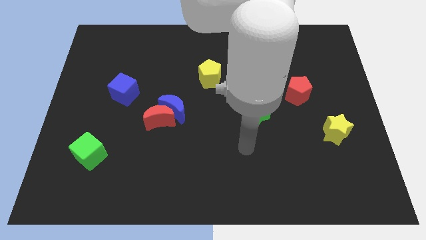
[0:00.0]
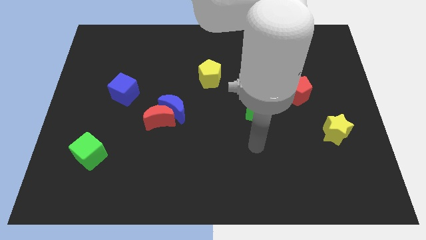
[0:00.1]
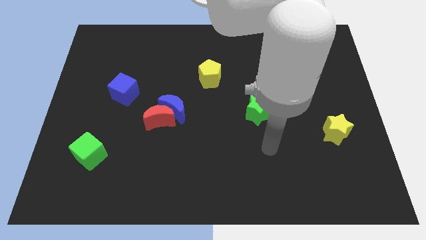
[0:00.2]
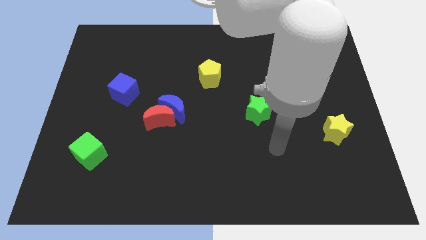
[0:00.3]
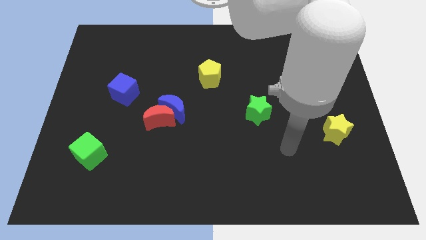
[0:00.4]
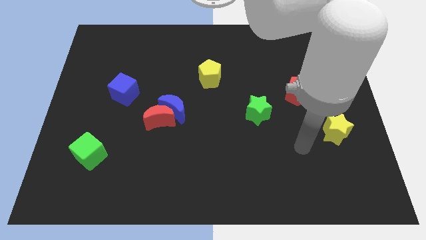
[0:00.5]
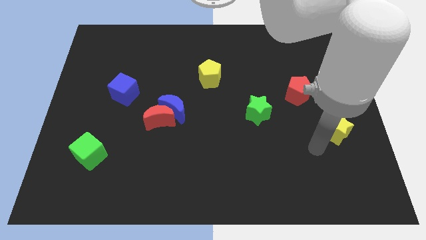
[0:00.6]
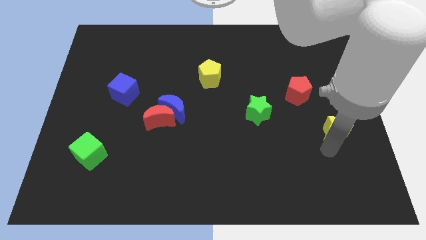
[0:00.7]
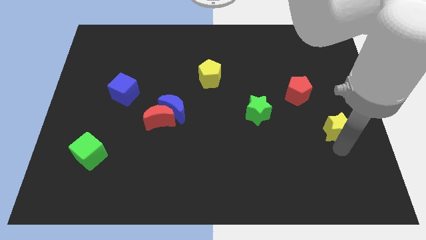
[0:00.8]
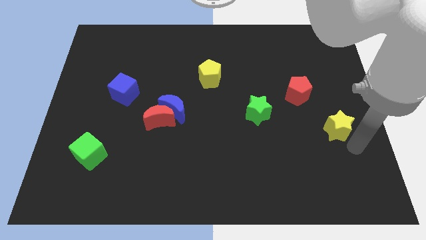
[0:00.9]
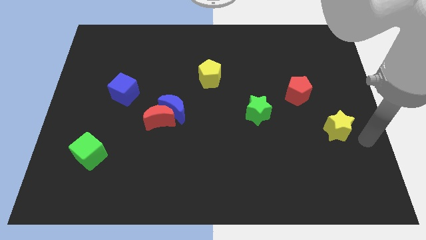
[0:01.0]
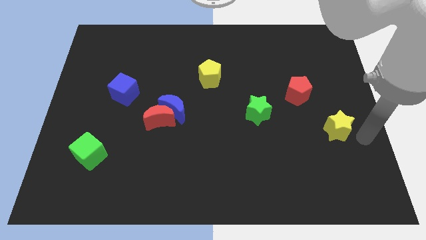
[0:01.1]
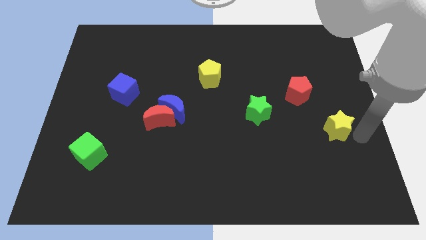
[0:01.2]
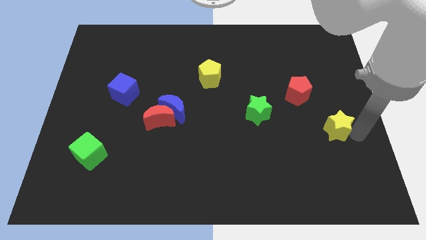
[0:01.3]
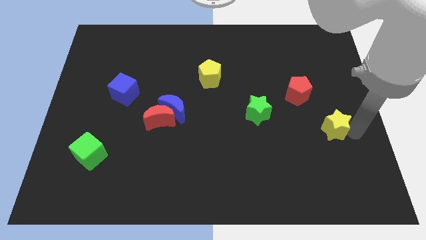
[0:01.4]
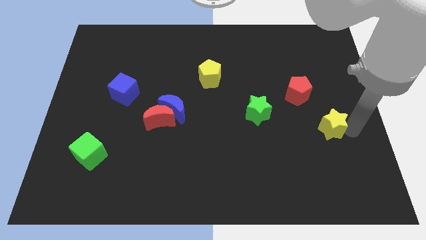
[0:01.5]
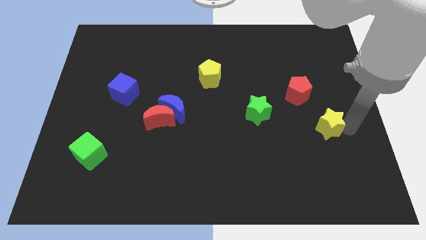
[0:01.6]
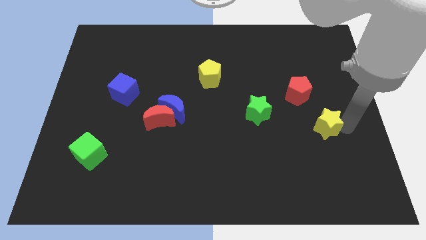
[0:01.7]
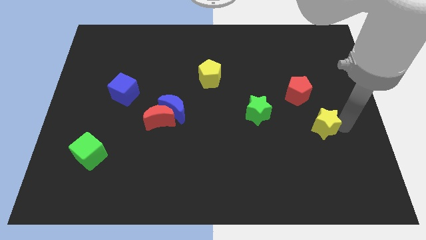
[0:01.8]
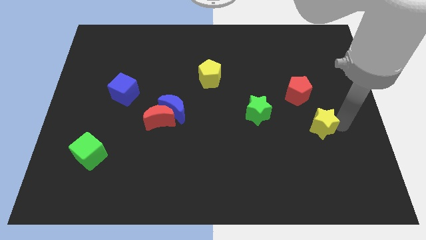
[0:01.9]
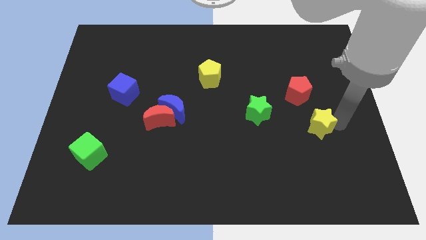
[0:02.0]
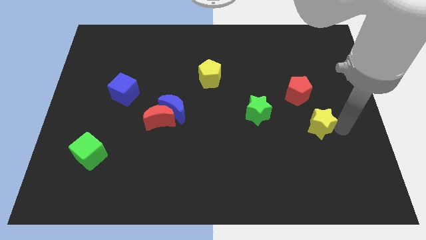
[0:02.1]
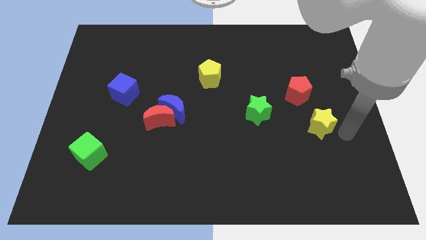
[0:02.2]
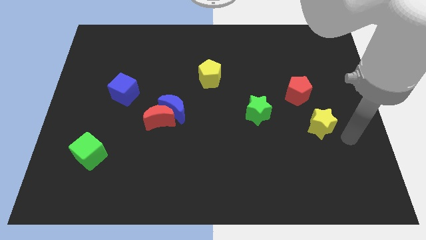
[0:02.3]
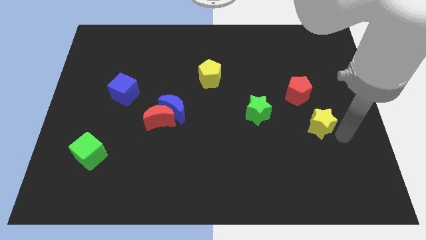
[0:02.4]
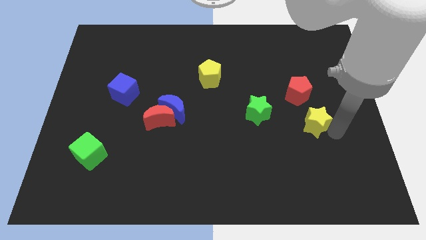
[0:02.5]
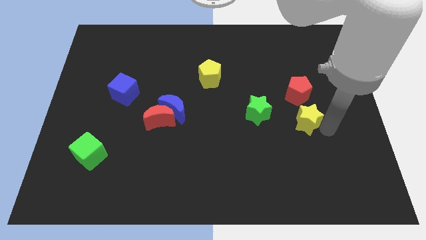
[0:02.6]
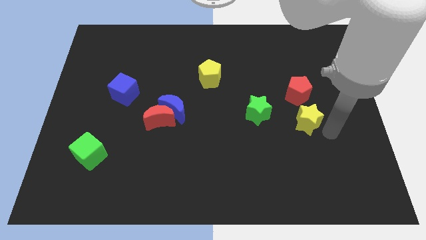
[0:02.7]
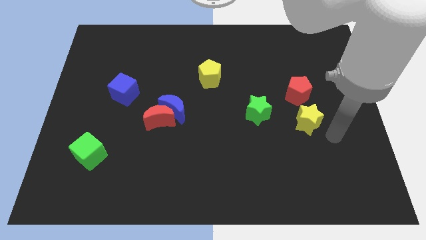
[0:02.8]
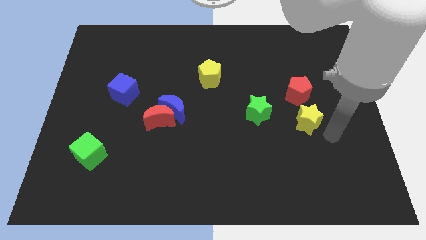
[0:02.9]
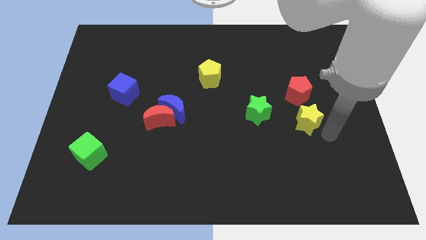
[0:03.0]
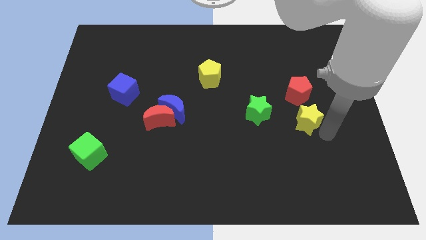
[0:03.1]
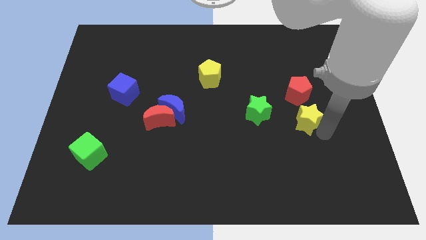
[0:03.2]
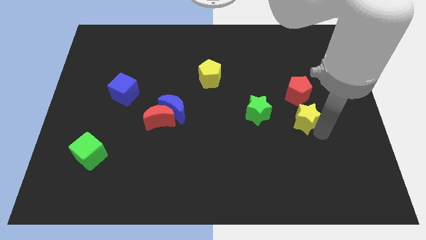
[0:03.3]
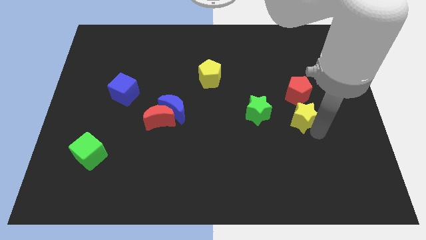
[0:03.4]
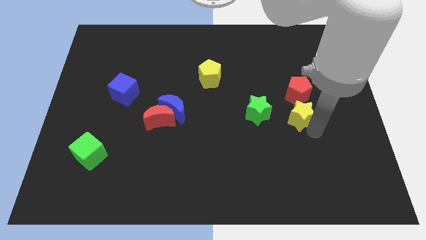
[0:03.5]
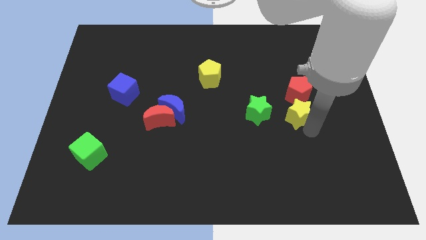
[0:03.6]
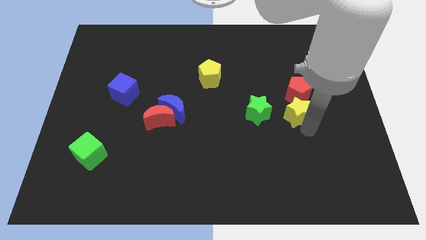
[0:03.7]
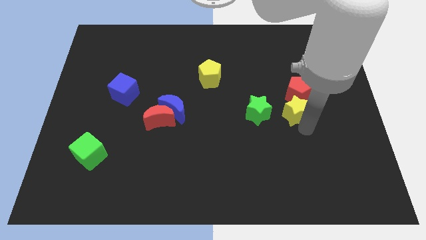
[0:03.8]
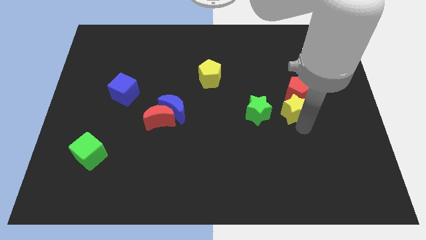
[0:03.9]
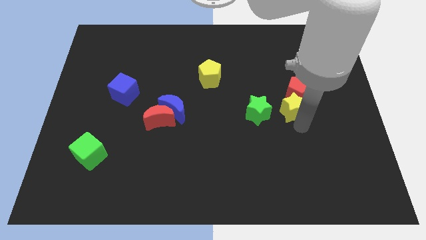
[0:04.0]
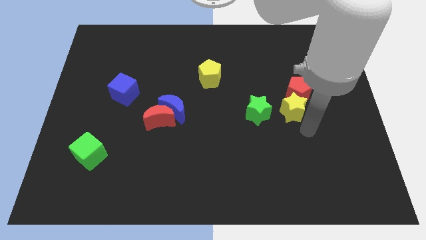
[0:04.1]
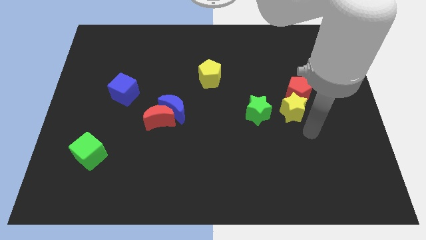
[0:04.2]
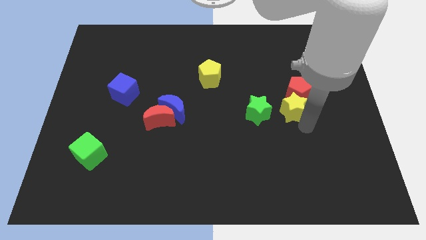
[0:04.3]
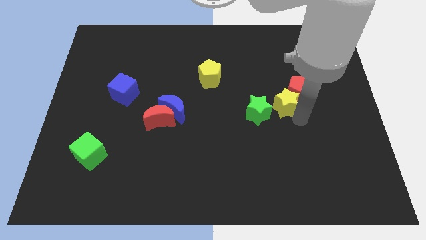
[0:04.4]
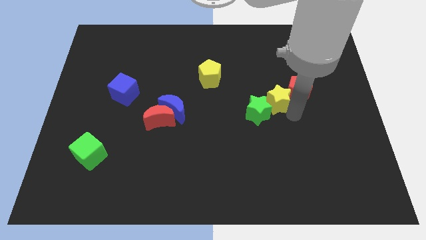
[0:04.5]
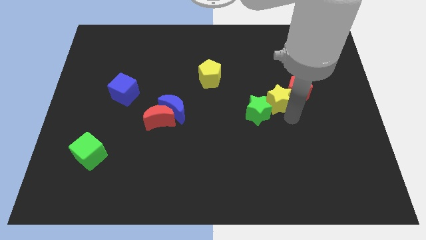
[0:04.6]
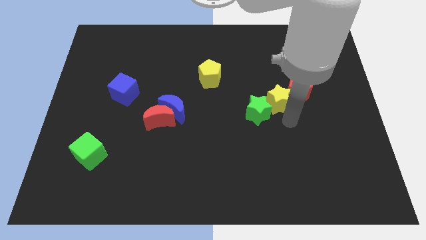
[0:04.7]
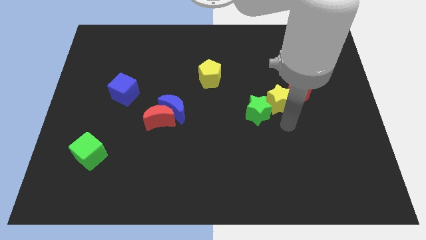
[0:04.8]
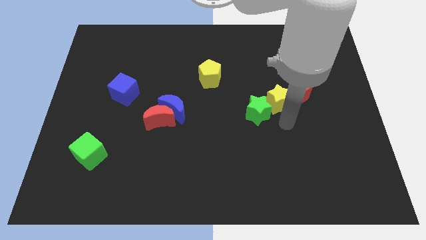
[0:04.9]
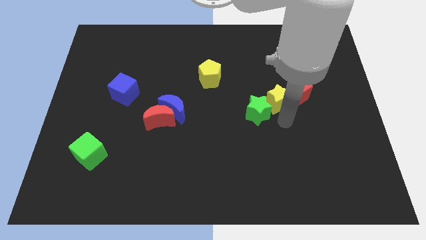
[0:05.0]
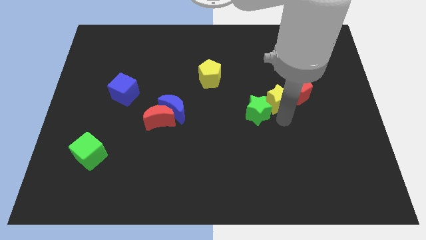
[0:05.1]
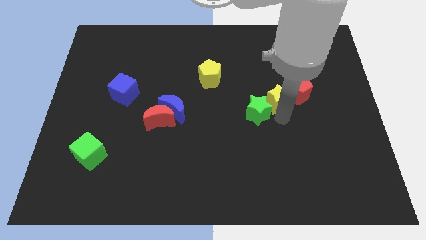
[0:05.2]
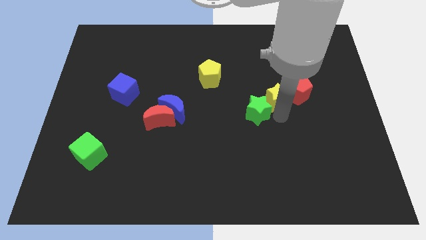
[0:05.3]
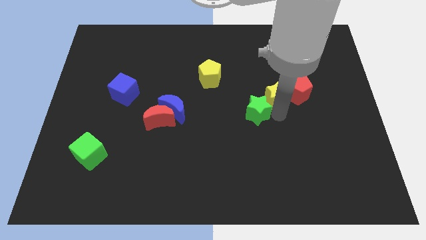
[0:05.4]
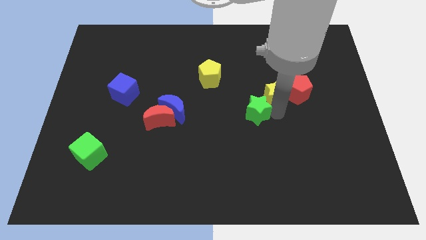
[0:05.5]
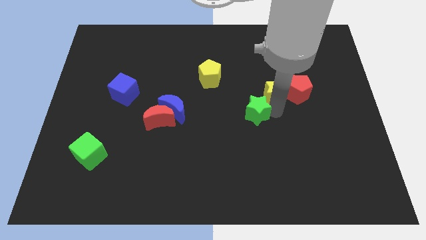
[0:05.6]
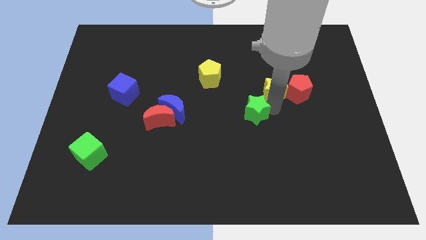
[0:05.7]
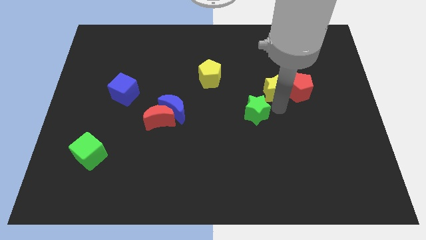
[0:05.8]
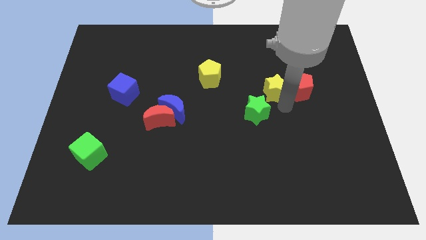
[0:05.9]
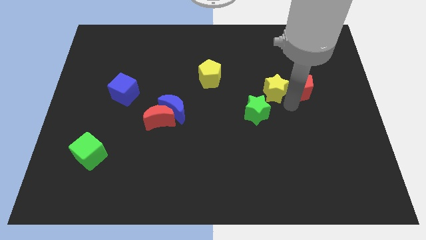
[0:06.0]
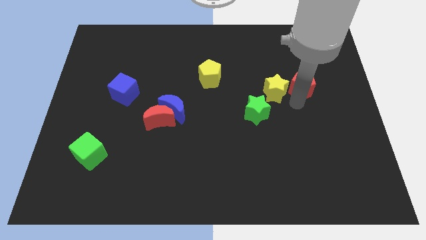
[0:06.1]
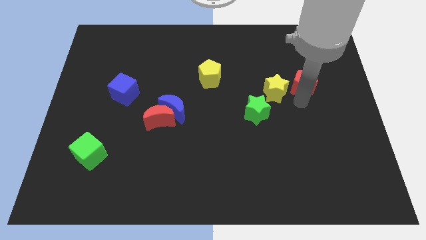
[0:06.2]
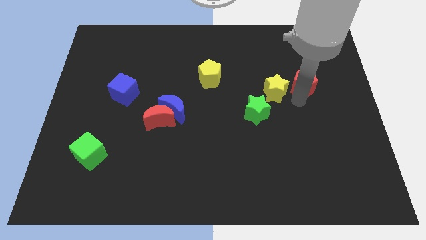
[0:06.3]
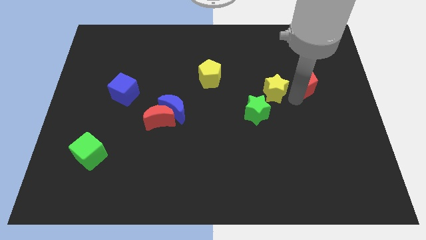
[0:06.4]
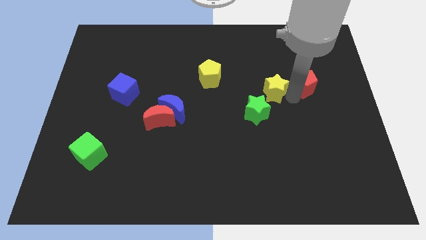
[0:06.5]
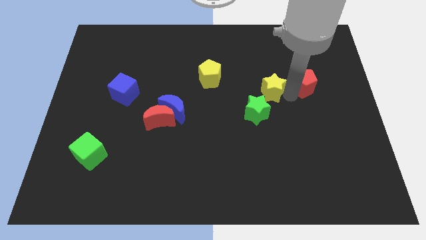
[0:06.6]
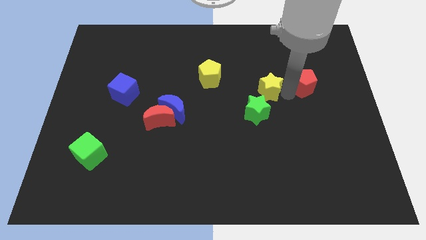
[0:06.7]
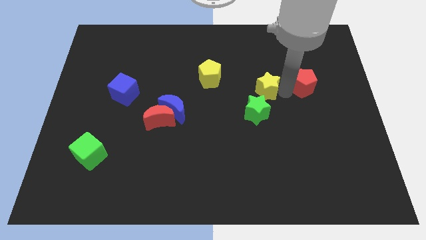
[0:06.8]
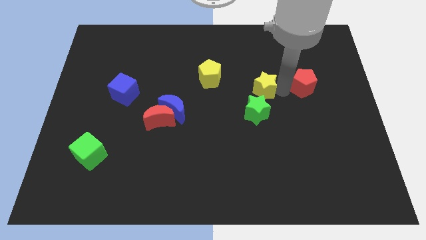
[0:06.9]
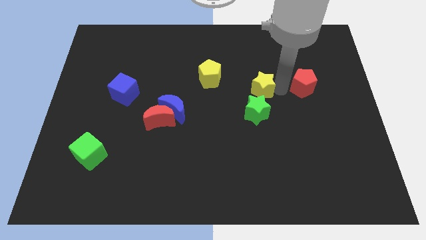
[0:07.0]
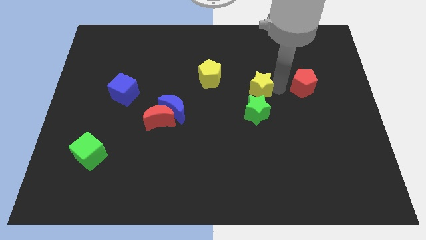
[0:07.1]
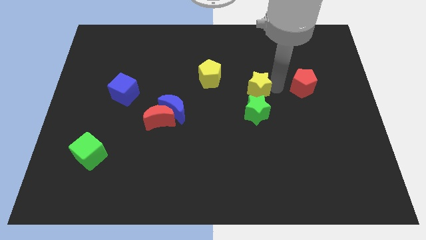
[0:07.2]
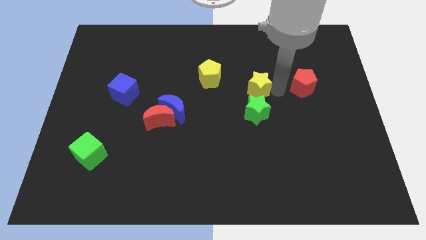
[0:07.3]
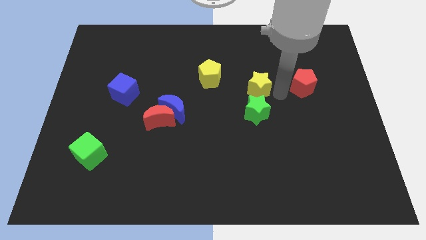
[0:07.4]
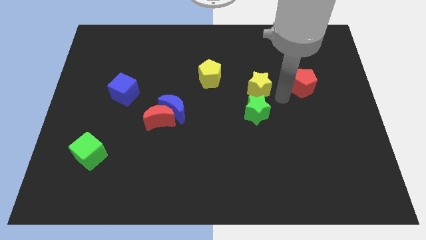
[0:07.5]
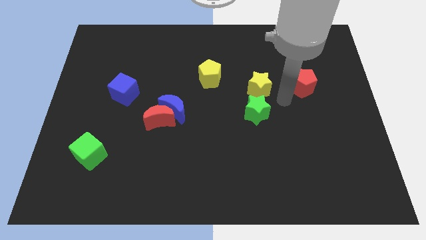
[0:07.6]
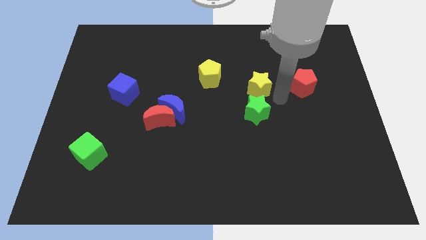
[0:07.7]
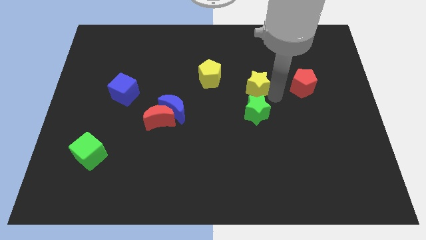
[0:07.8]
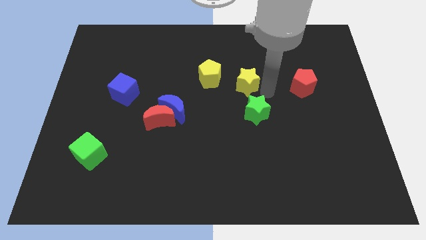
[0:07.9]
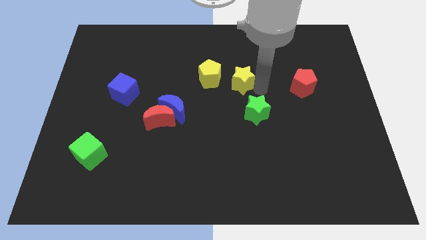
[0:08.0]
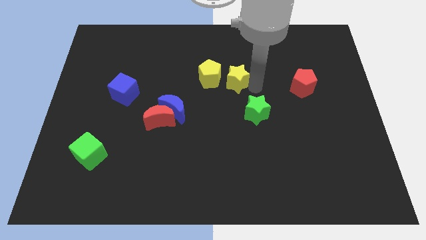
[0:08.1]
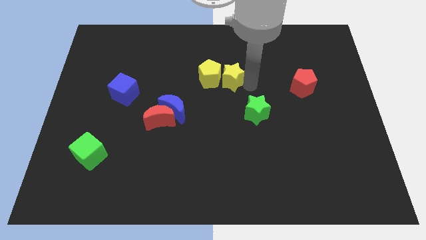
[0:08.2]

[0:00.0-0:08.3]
slide the yellow star towards the yellow pentagon
